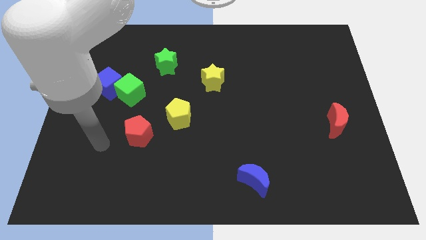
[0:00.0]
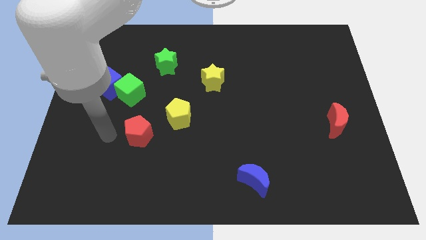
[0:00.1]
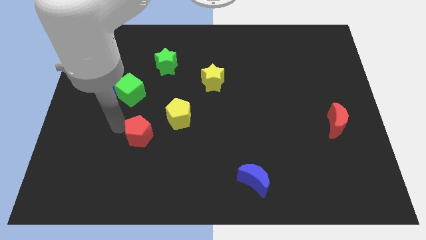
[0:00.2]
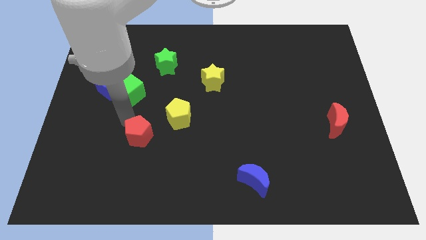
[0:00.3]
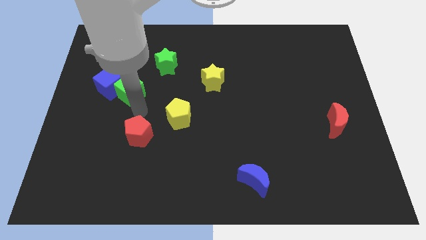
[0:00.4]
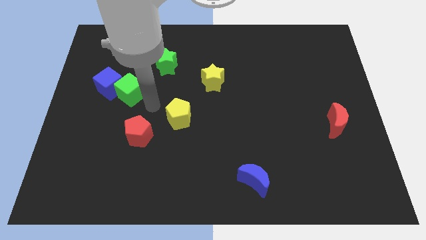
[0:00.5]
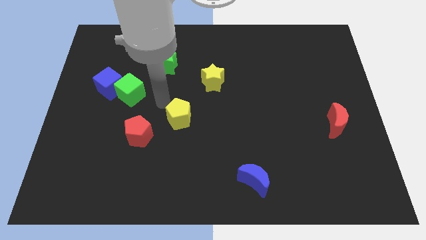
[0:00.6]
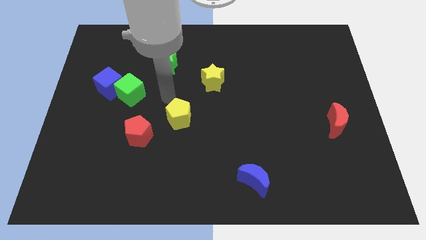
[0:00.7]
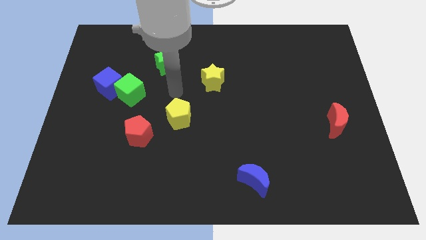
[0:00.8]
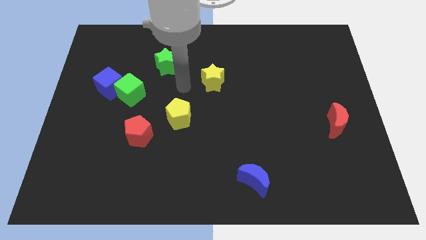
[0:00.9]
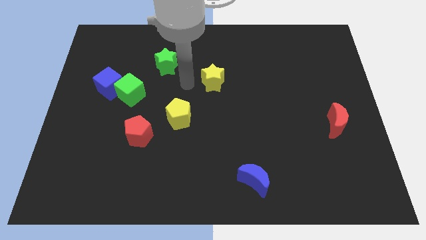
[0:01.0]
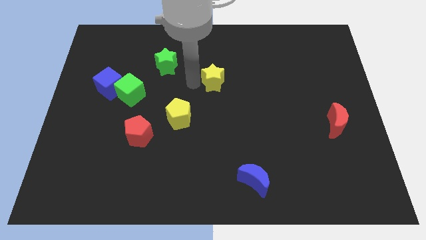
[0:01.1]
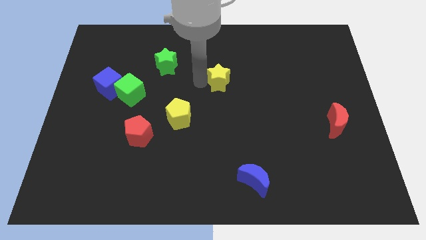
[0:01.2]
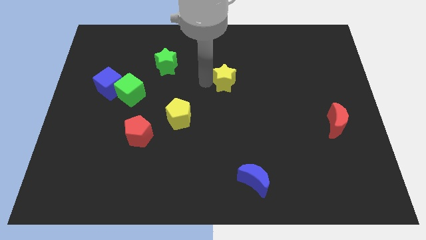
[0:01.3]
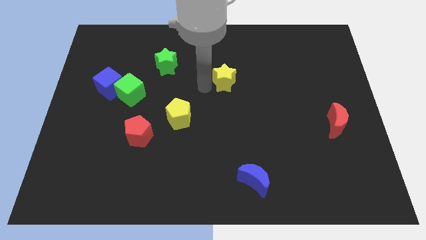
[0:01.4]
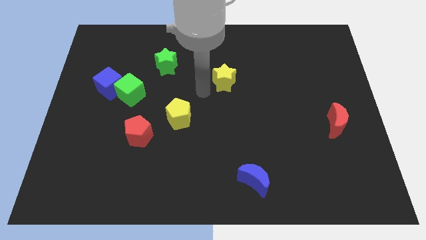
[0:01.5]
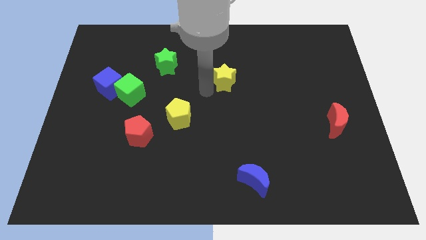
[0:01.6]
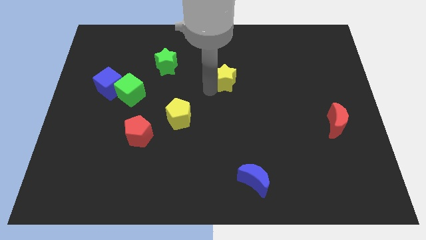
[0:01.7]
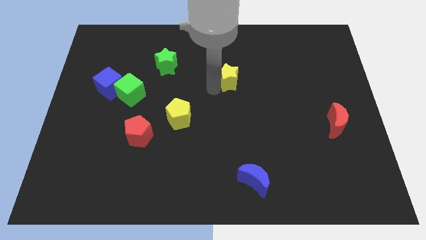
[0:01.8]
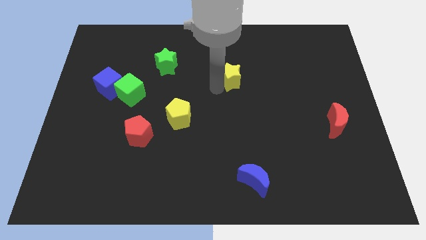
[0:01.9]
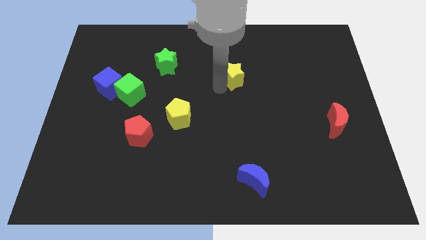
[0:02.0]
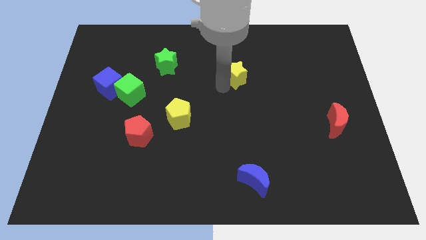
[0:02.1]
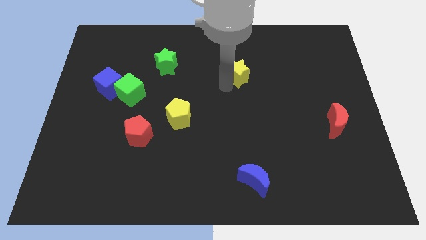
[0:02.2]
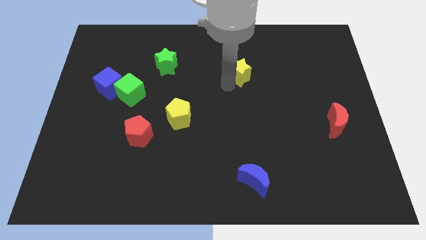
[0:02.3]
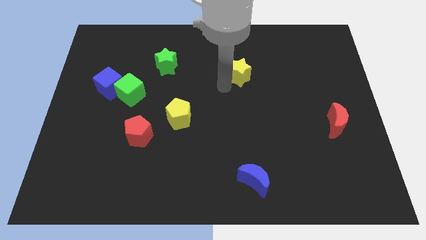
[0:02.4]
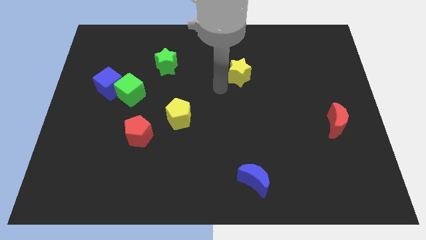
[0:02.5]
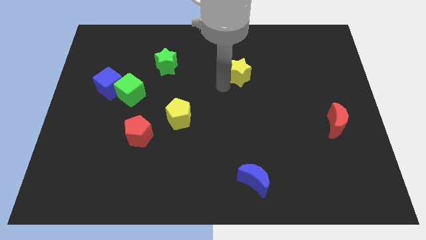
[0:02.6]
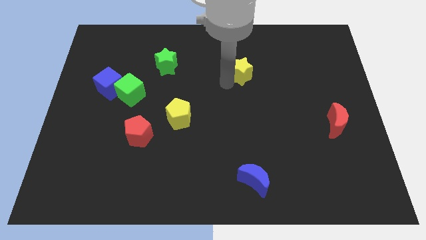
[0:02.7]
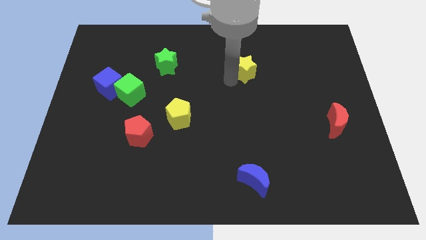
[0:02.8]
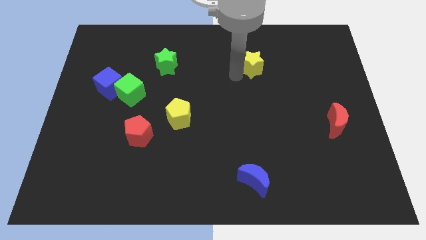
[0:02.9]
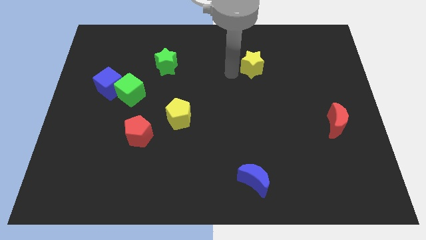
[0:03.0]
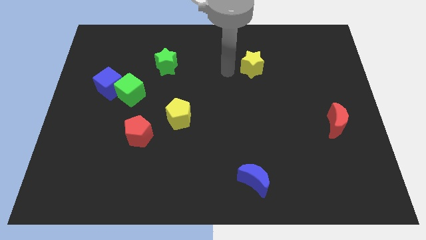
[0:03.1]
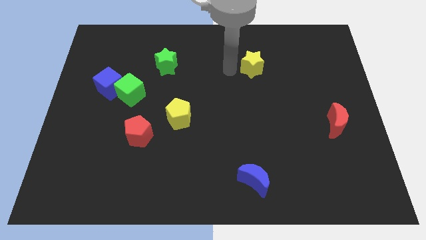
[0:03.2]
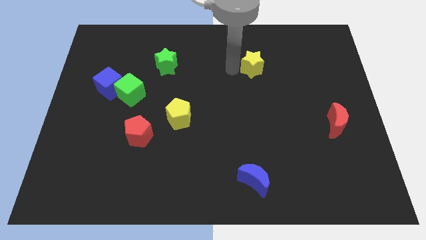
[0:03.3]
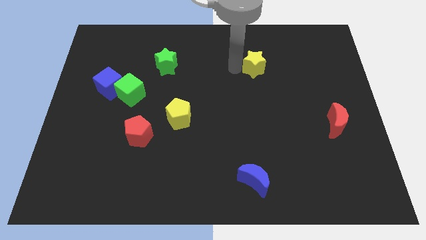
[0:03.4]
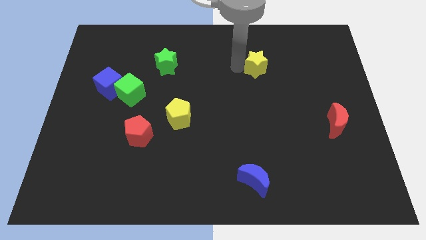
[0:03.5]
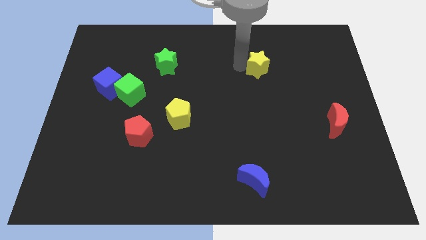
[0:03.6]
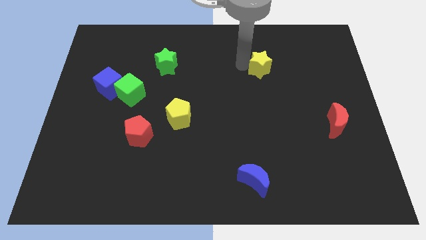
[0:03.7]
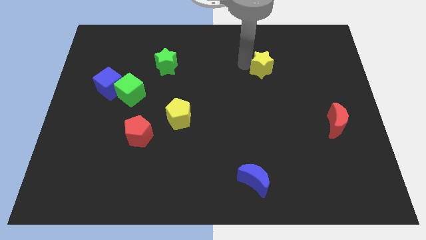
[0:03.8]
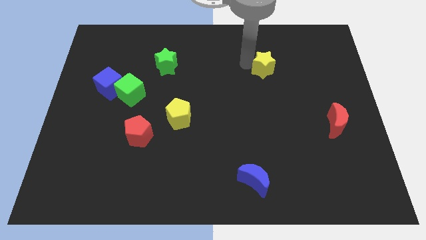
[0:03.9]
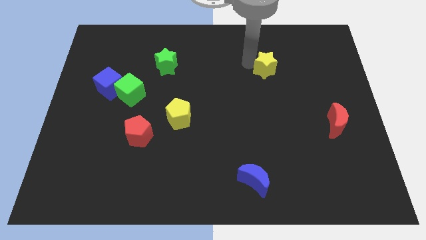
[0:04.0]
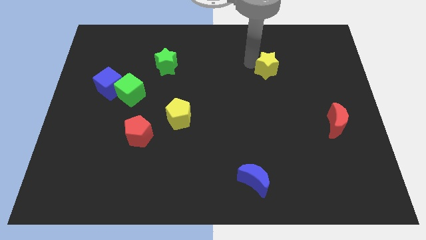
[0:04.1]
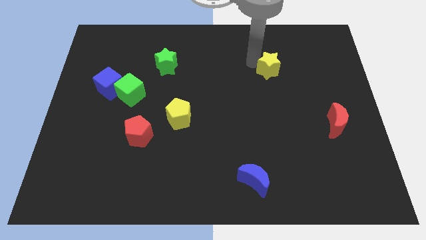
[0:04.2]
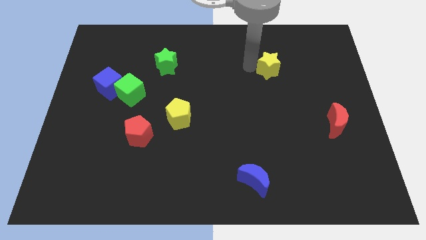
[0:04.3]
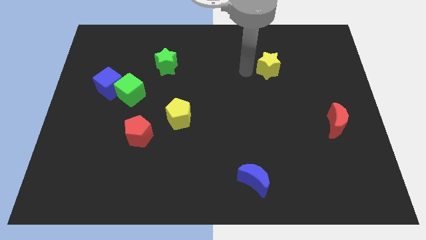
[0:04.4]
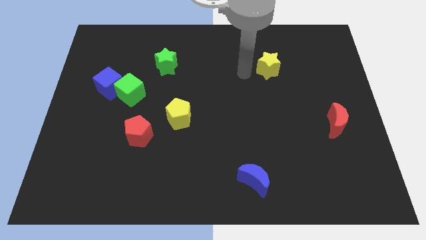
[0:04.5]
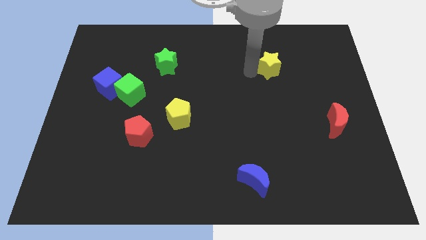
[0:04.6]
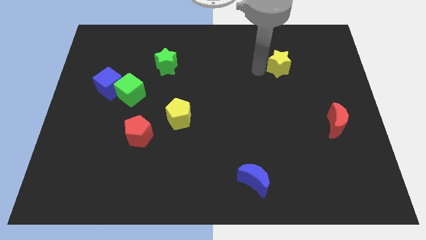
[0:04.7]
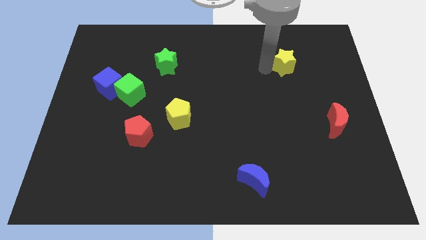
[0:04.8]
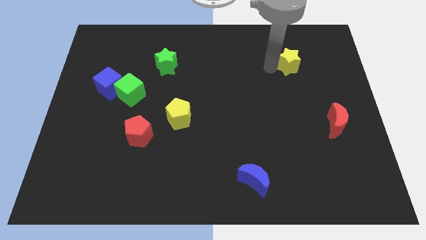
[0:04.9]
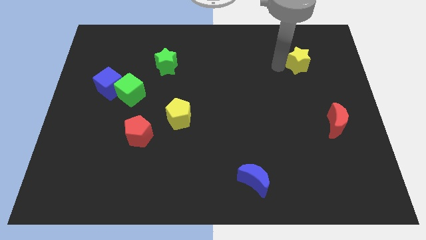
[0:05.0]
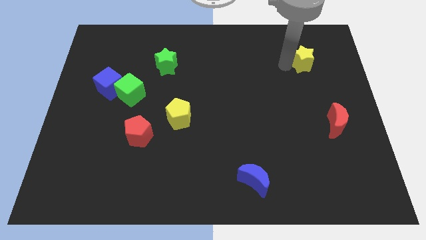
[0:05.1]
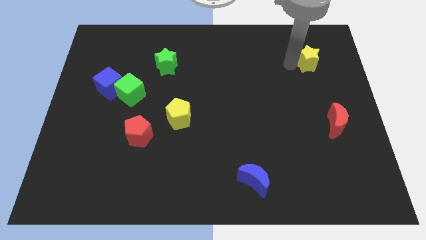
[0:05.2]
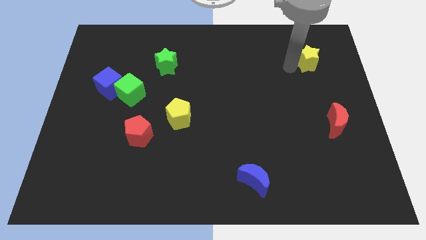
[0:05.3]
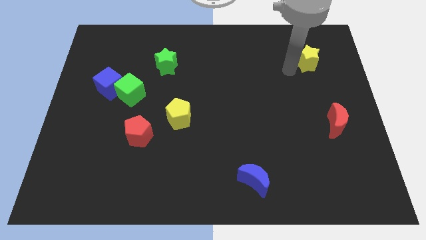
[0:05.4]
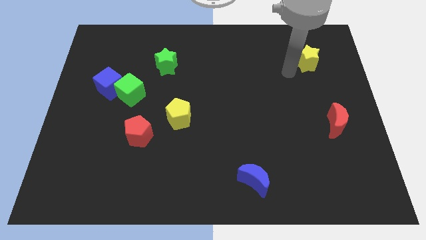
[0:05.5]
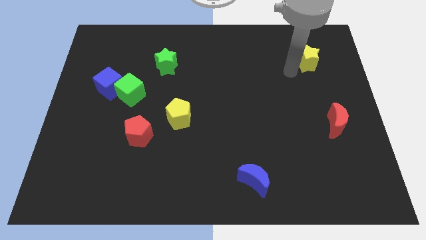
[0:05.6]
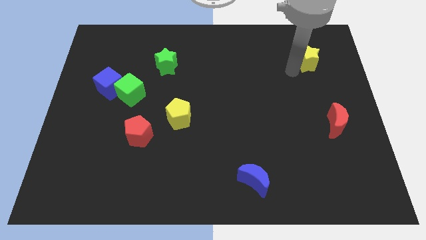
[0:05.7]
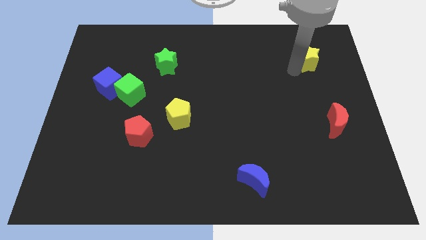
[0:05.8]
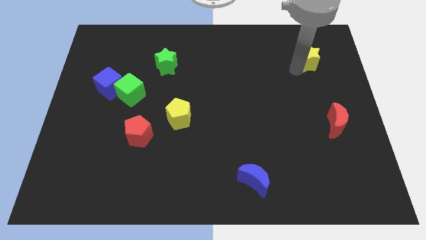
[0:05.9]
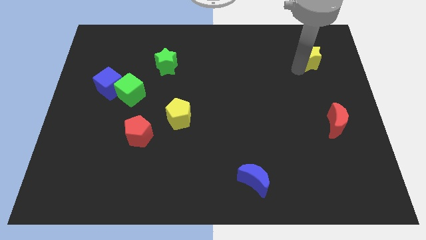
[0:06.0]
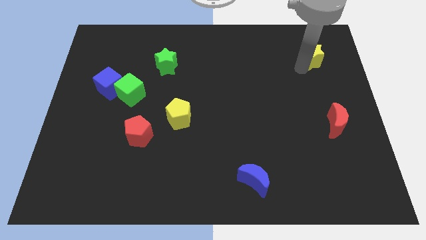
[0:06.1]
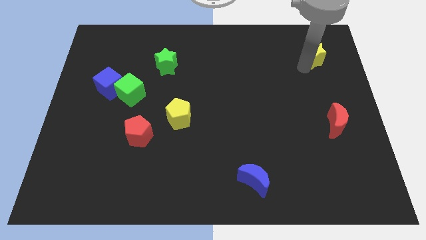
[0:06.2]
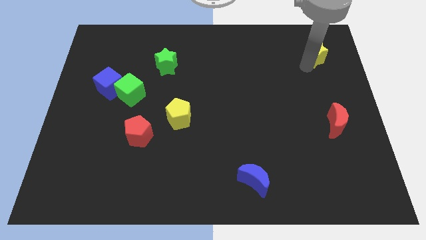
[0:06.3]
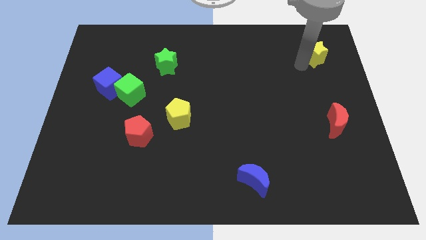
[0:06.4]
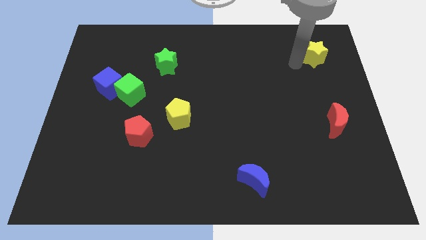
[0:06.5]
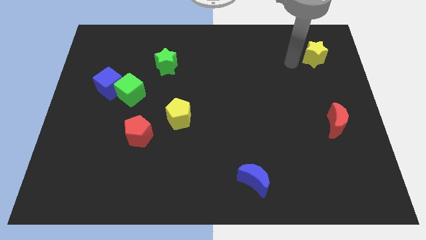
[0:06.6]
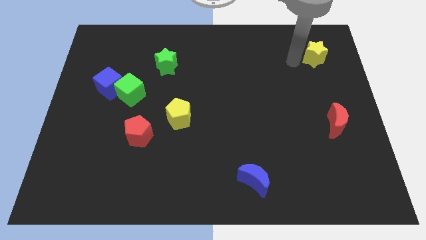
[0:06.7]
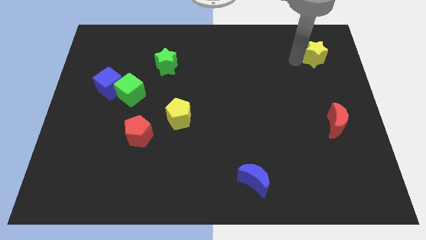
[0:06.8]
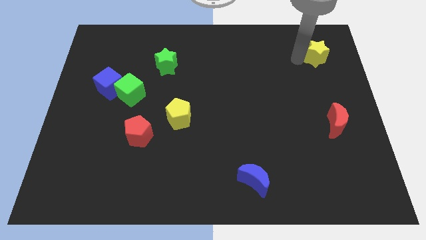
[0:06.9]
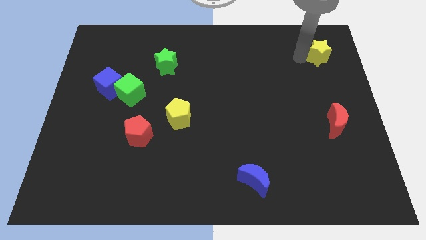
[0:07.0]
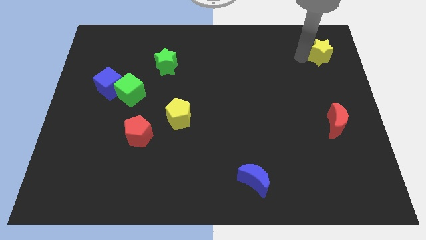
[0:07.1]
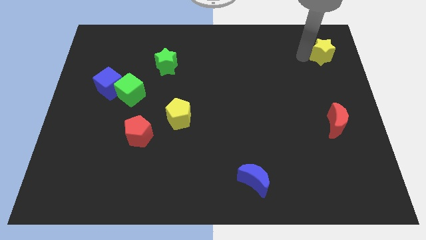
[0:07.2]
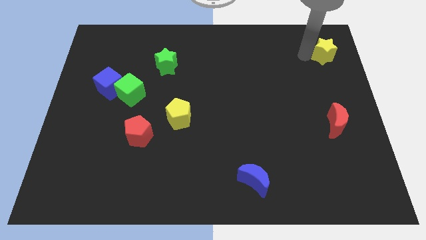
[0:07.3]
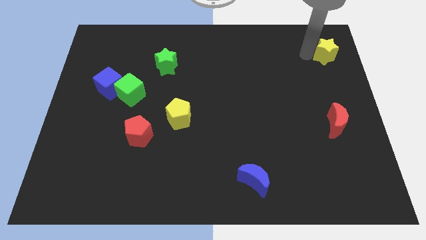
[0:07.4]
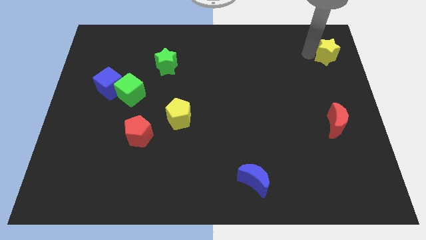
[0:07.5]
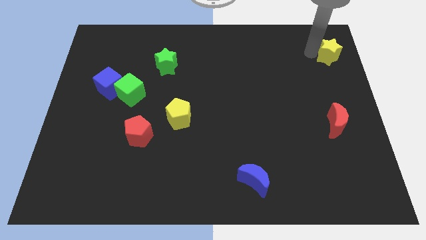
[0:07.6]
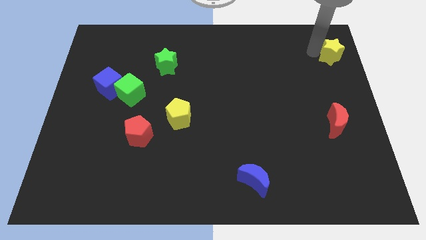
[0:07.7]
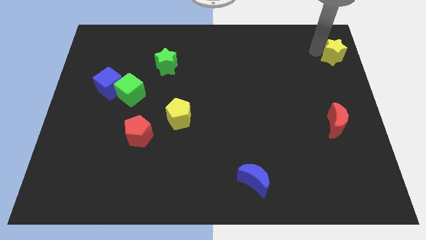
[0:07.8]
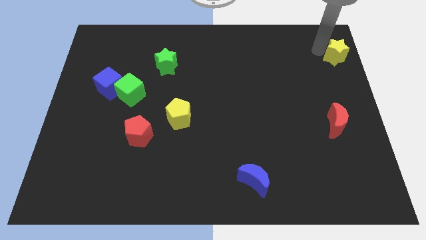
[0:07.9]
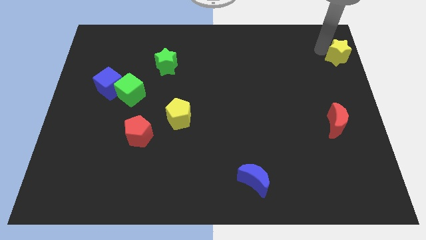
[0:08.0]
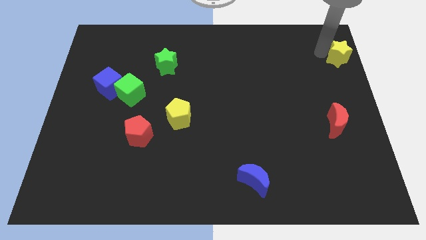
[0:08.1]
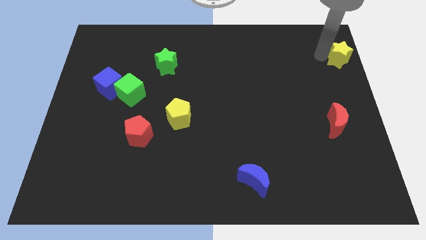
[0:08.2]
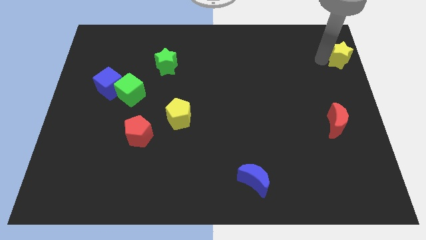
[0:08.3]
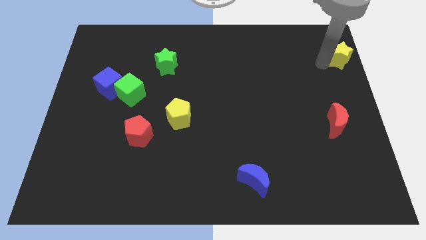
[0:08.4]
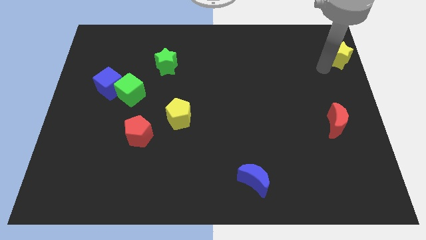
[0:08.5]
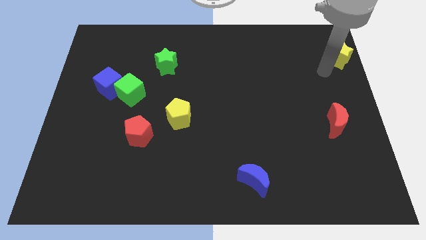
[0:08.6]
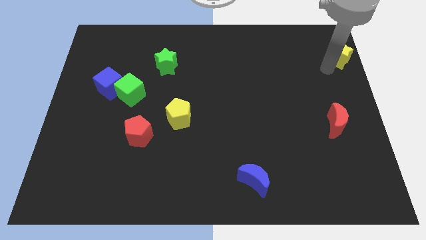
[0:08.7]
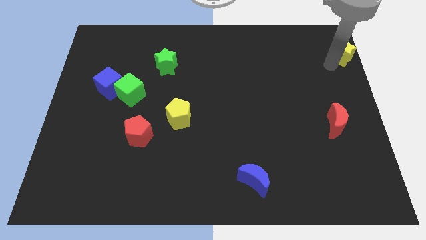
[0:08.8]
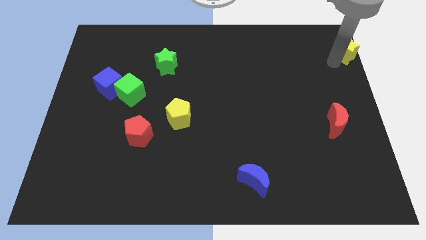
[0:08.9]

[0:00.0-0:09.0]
put the yellow star to the top right of the board
